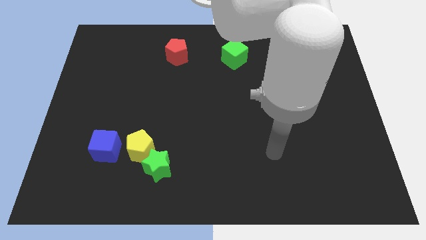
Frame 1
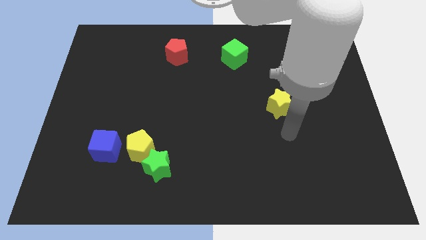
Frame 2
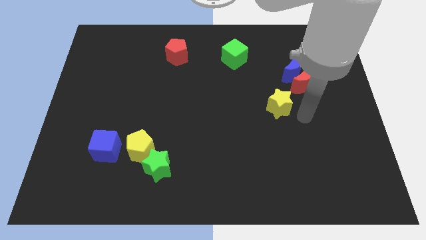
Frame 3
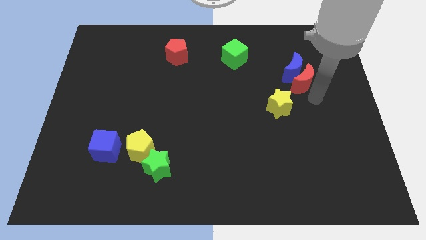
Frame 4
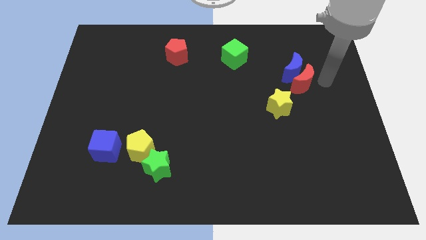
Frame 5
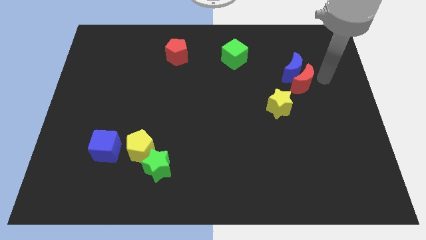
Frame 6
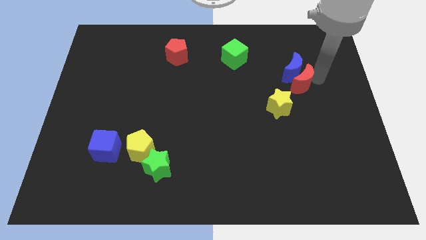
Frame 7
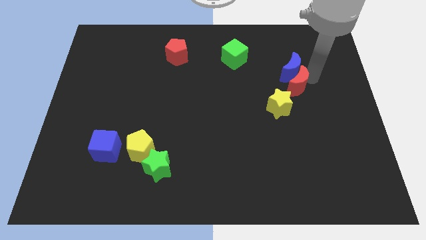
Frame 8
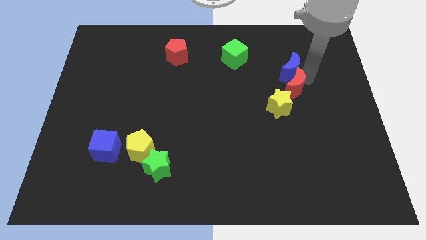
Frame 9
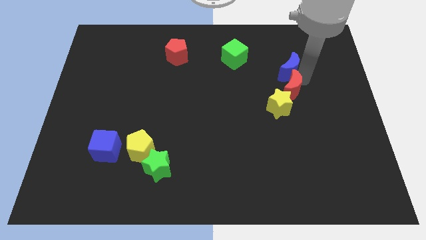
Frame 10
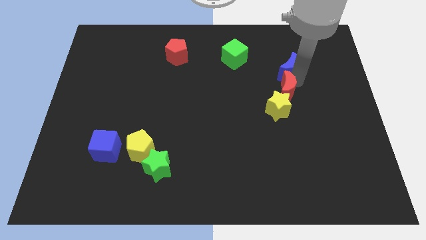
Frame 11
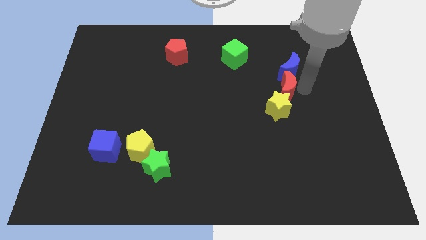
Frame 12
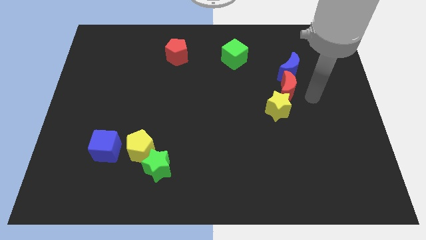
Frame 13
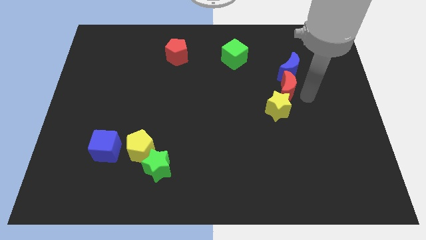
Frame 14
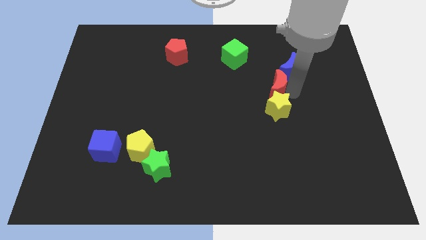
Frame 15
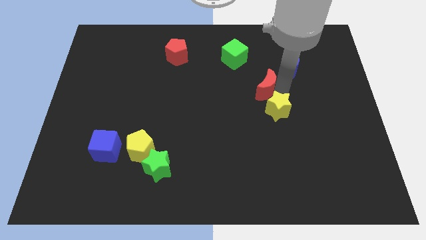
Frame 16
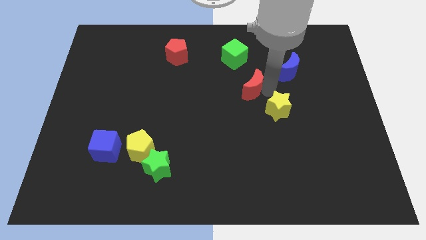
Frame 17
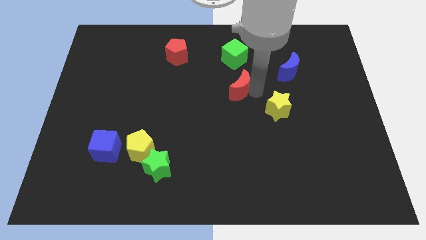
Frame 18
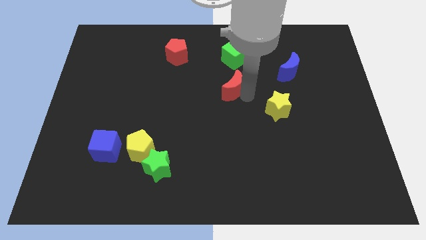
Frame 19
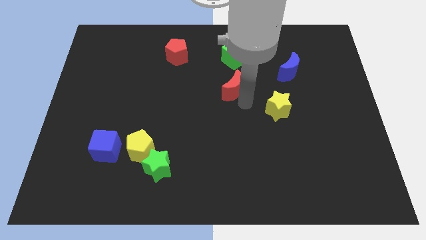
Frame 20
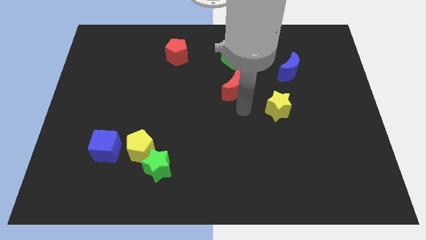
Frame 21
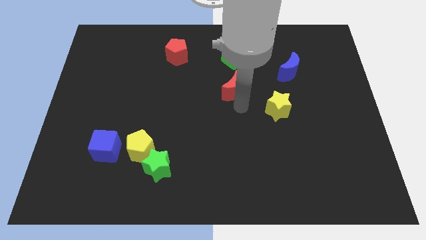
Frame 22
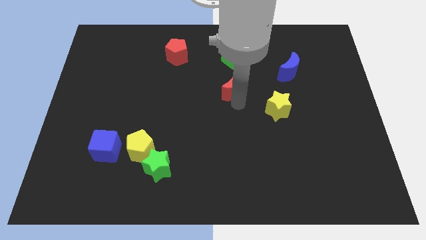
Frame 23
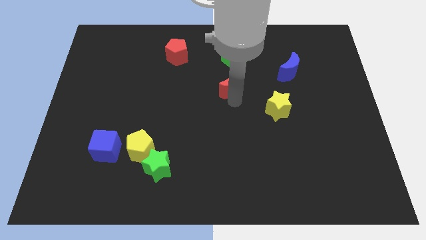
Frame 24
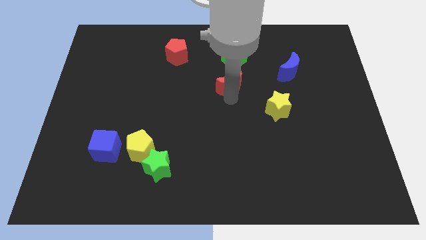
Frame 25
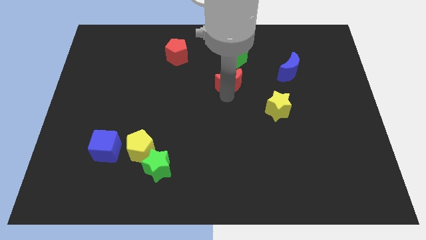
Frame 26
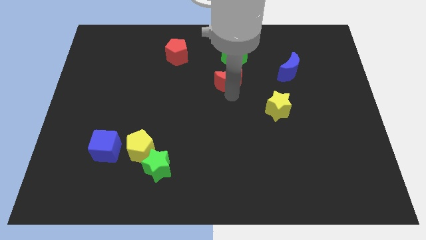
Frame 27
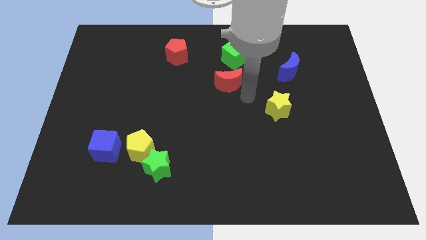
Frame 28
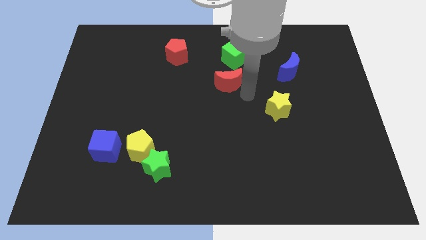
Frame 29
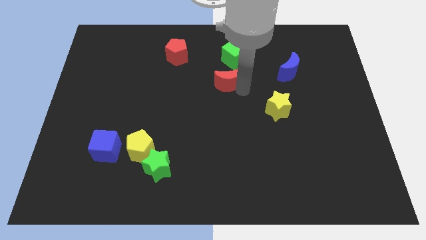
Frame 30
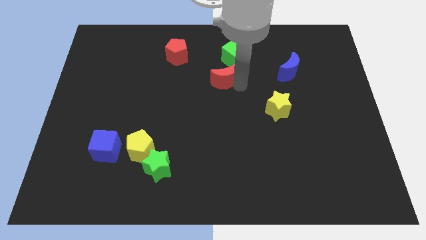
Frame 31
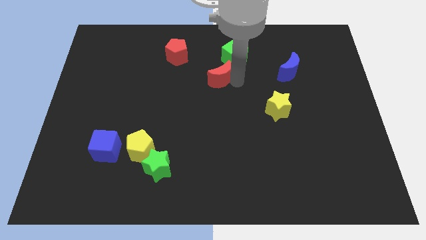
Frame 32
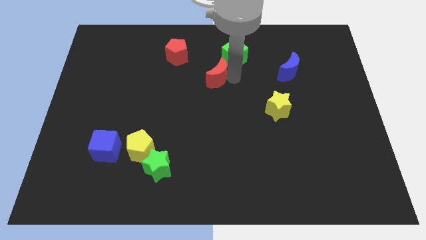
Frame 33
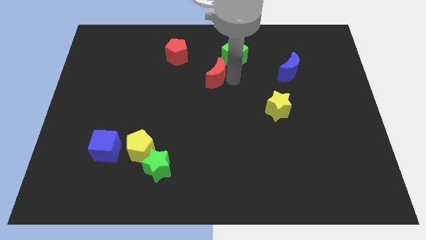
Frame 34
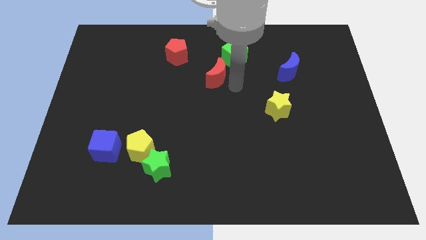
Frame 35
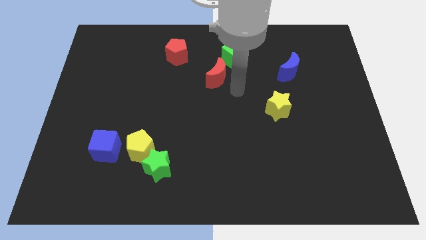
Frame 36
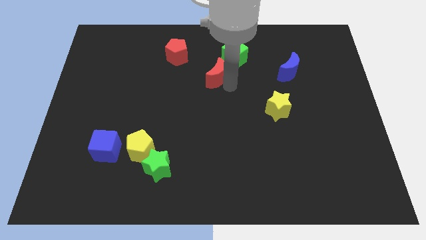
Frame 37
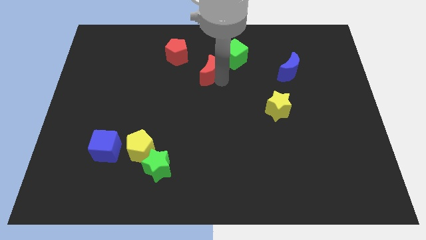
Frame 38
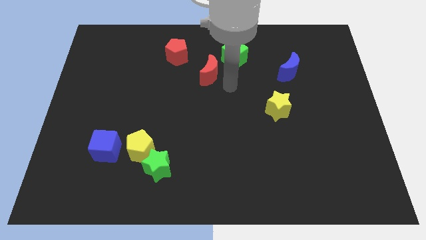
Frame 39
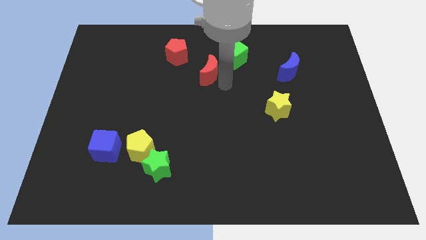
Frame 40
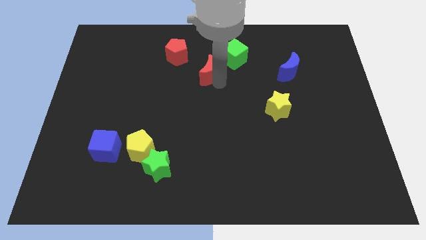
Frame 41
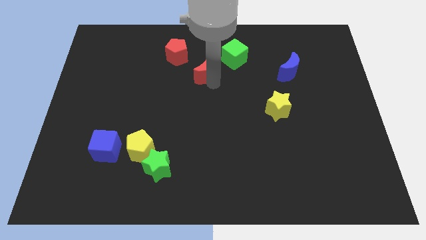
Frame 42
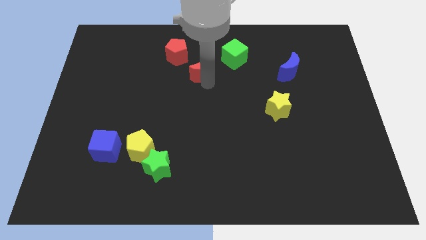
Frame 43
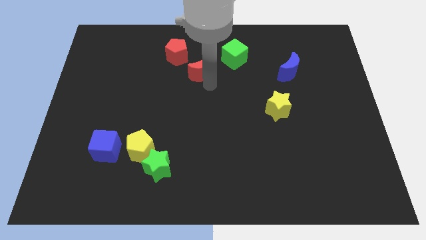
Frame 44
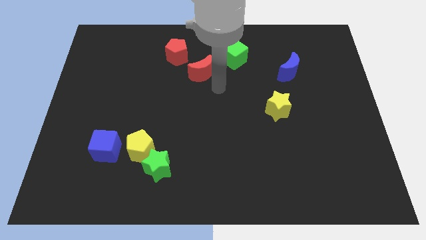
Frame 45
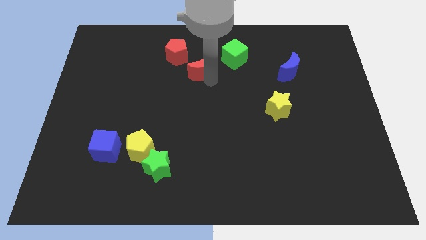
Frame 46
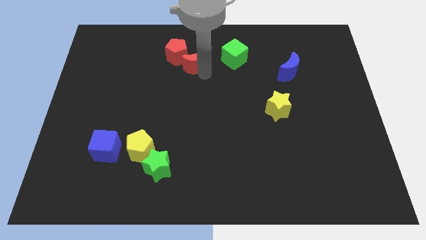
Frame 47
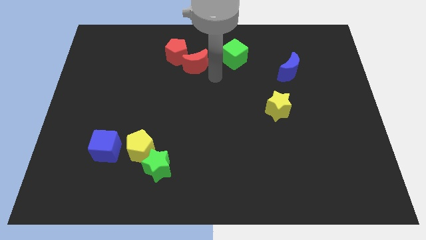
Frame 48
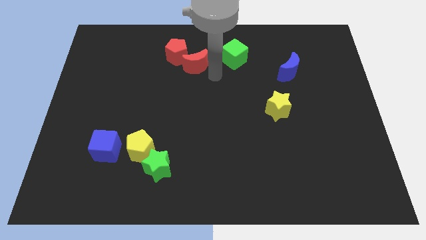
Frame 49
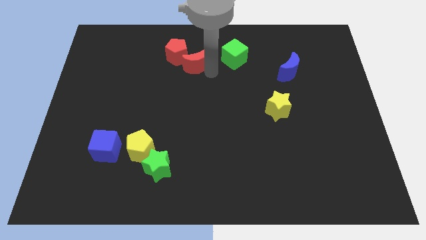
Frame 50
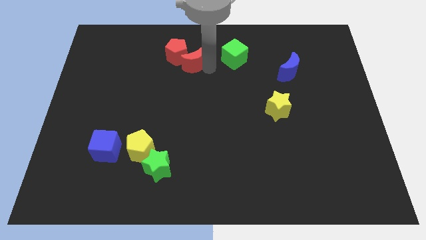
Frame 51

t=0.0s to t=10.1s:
slide the red moon towards the red pentagon

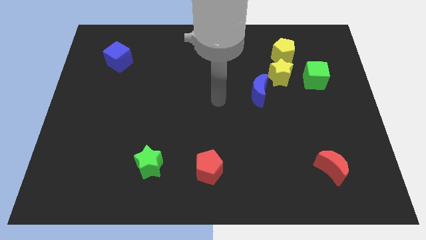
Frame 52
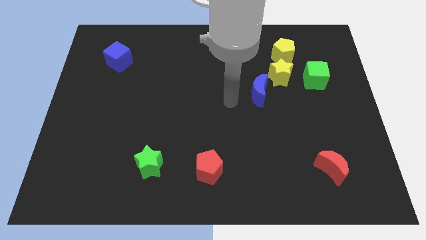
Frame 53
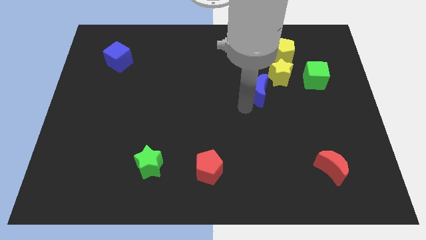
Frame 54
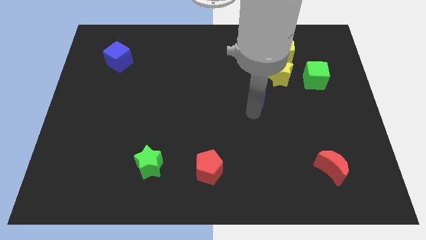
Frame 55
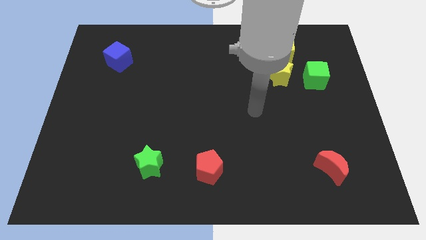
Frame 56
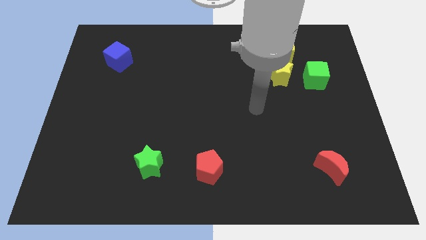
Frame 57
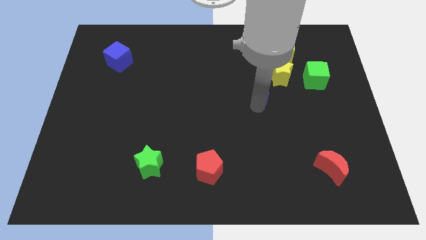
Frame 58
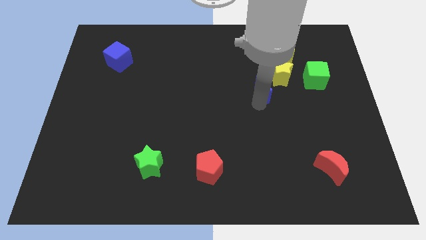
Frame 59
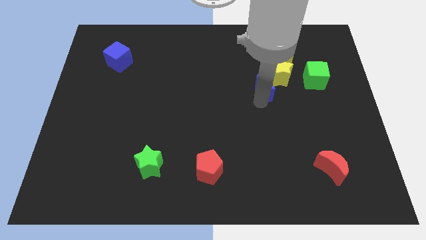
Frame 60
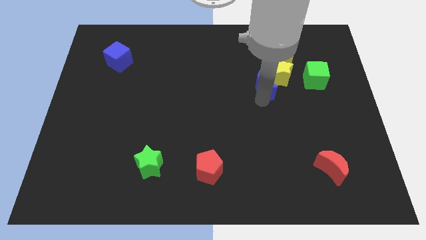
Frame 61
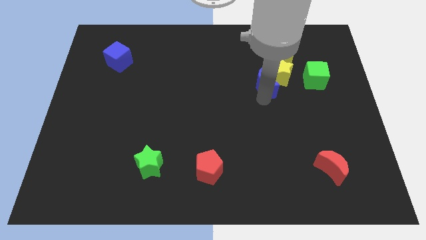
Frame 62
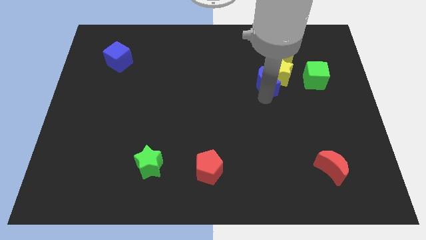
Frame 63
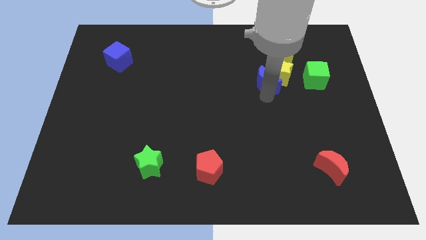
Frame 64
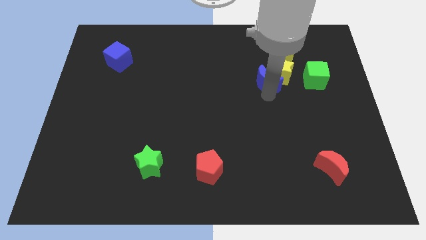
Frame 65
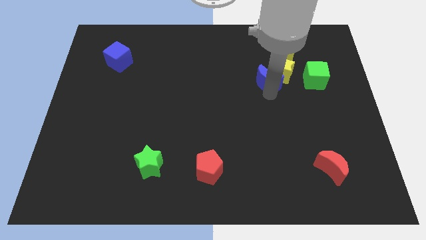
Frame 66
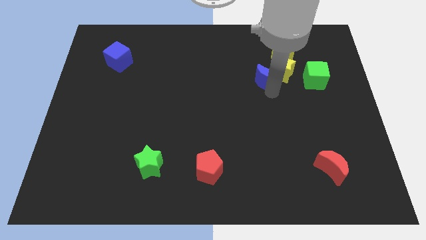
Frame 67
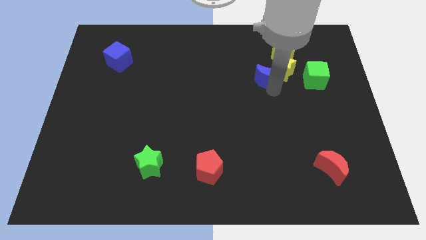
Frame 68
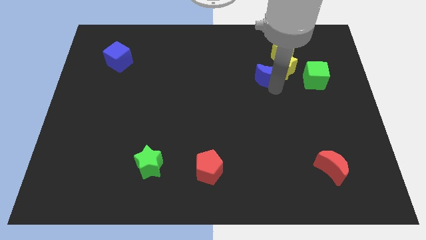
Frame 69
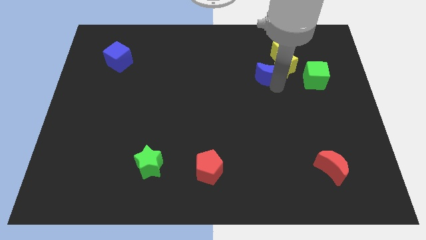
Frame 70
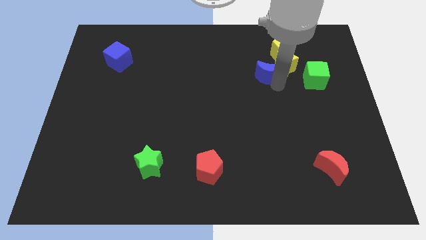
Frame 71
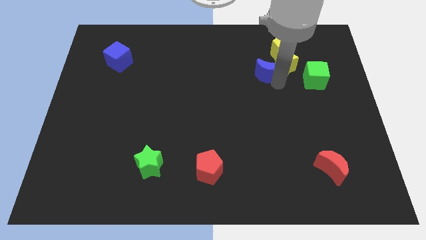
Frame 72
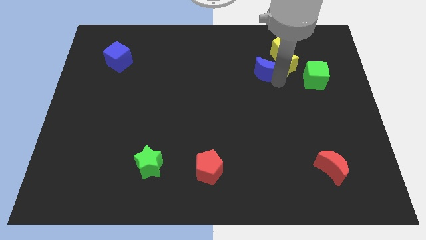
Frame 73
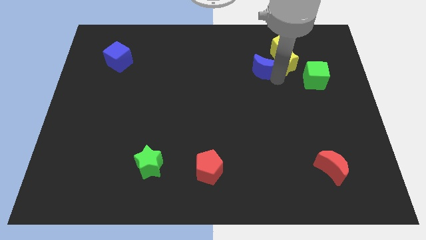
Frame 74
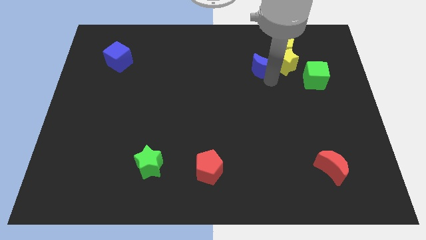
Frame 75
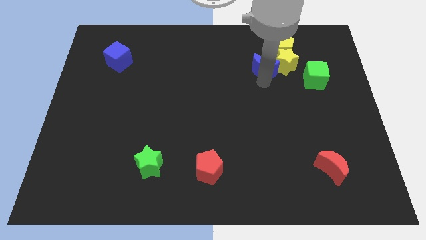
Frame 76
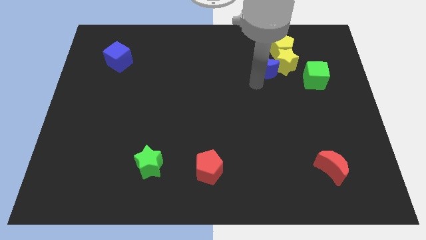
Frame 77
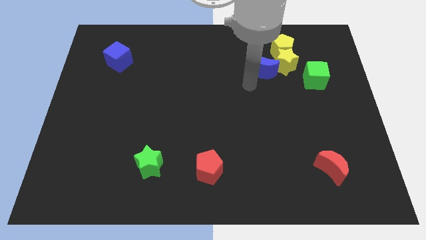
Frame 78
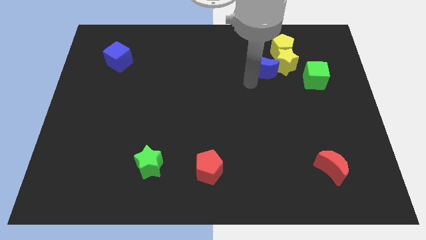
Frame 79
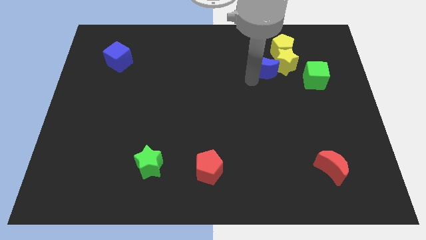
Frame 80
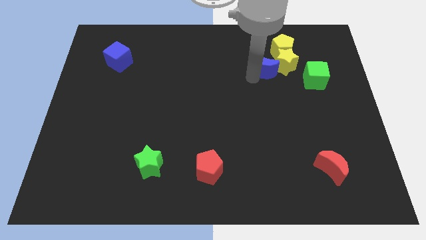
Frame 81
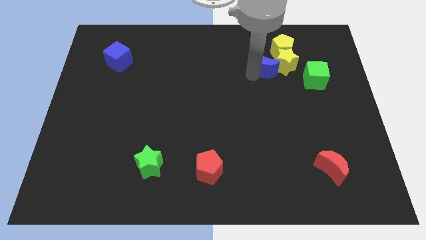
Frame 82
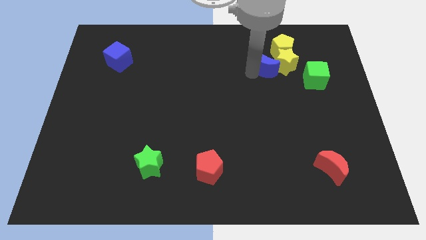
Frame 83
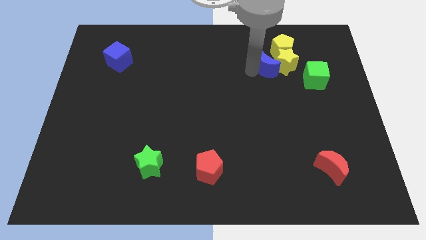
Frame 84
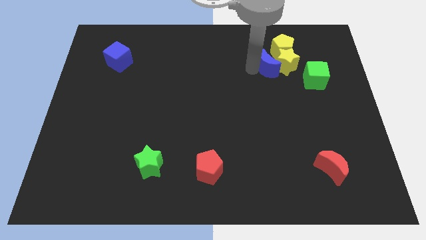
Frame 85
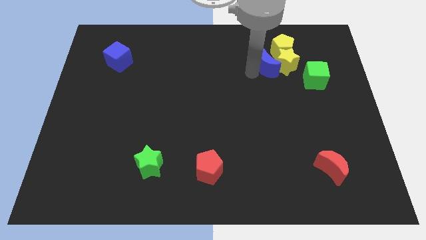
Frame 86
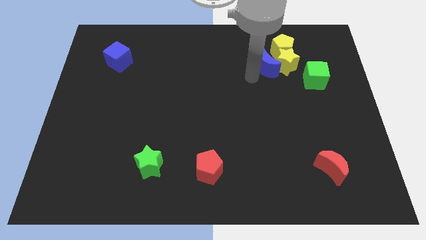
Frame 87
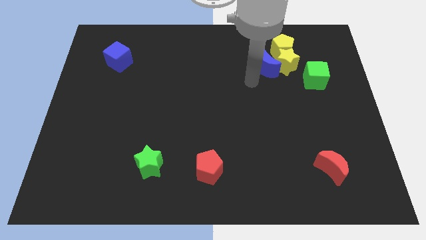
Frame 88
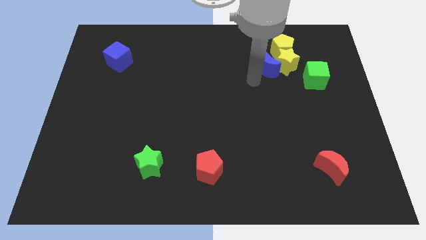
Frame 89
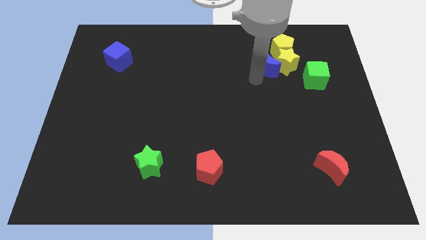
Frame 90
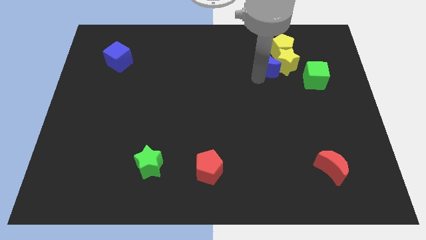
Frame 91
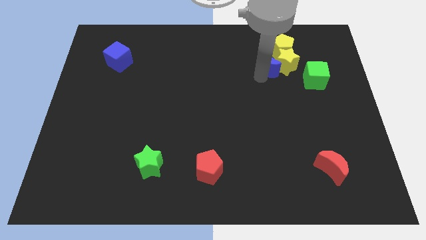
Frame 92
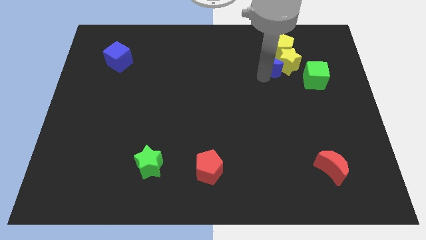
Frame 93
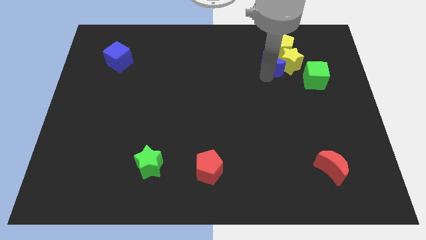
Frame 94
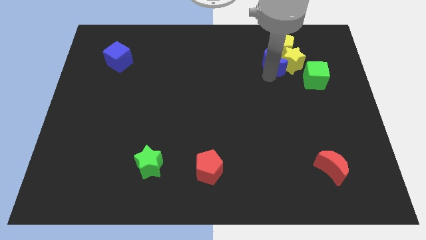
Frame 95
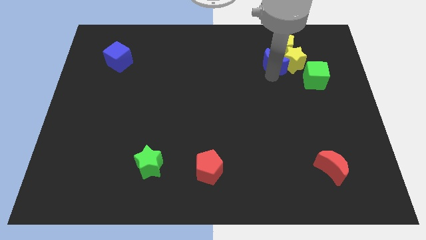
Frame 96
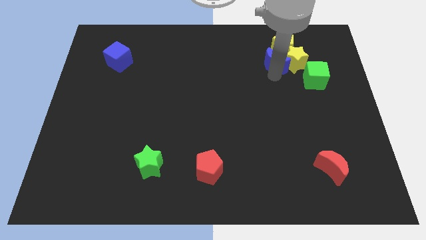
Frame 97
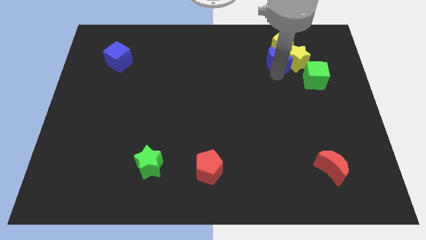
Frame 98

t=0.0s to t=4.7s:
put the blue moon to the yellow pentagon
